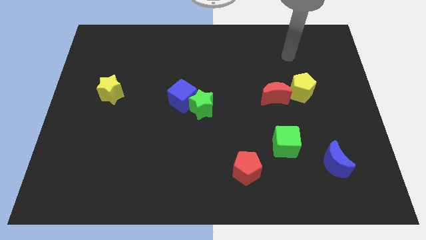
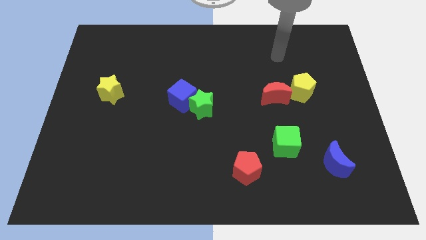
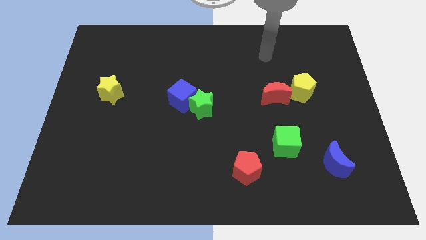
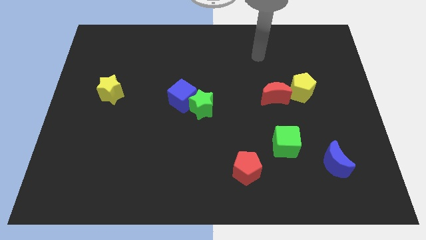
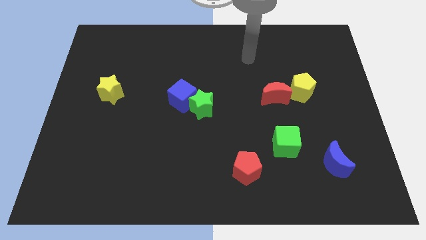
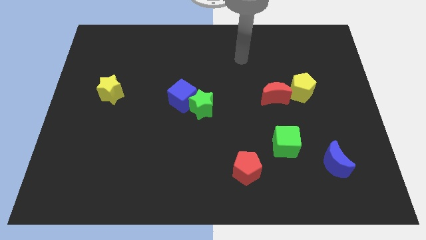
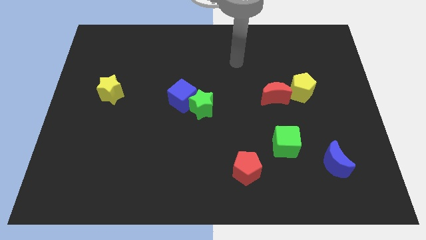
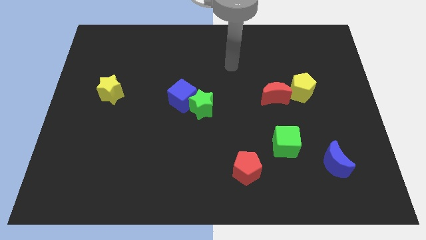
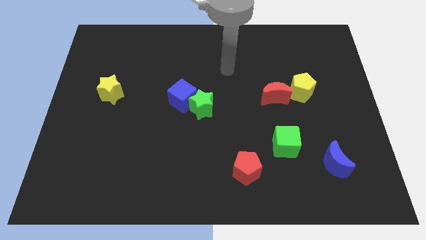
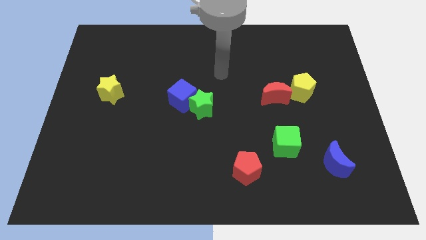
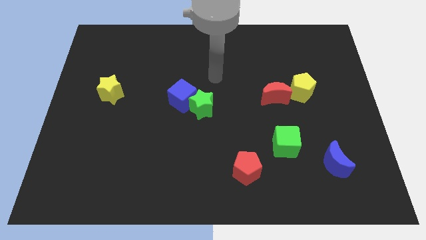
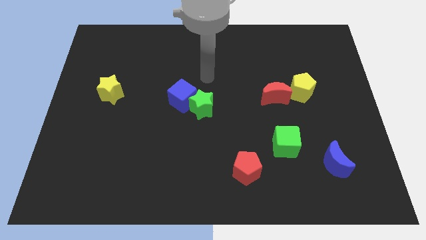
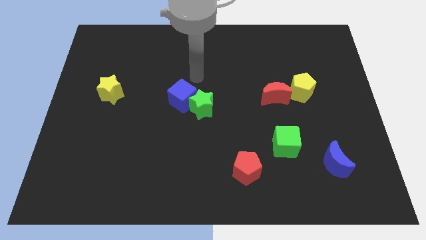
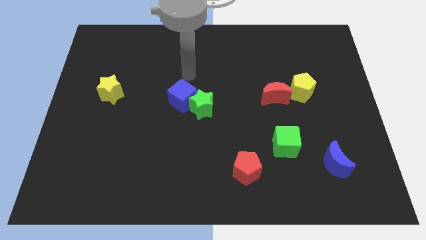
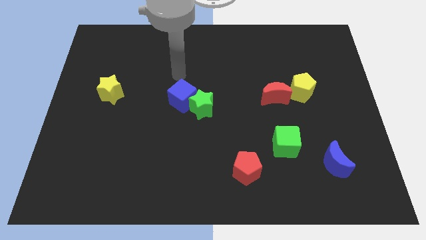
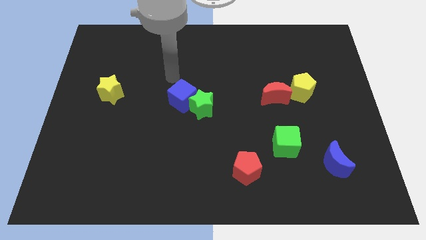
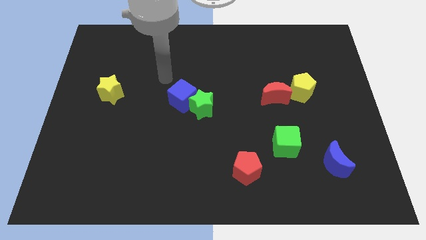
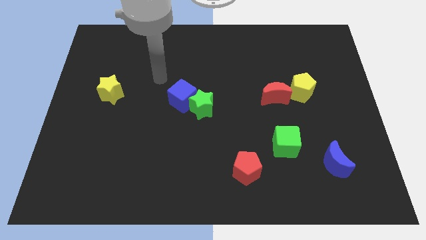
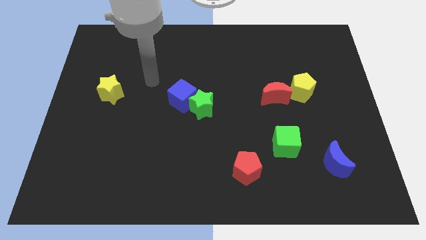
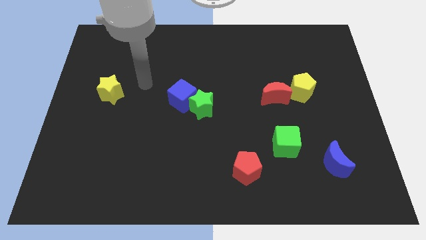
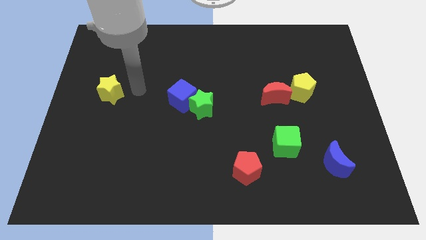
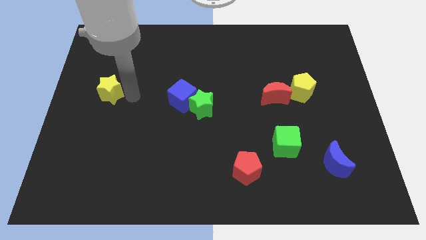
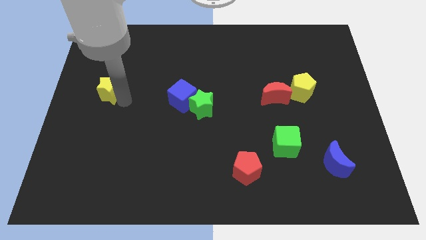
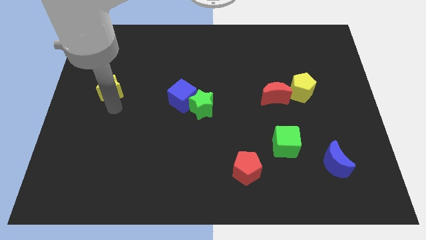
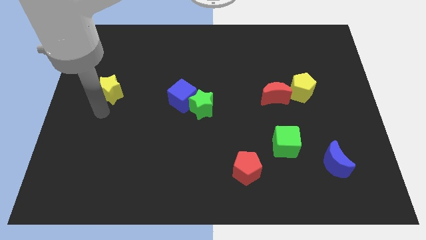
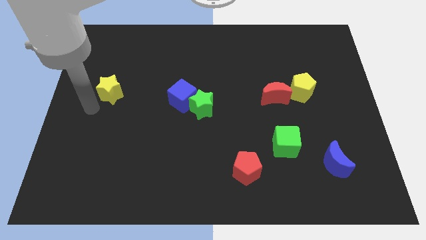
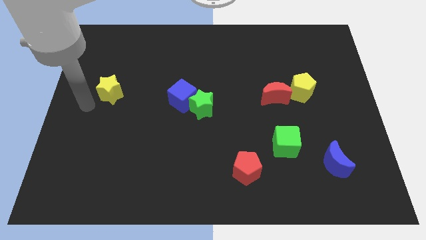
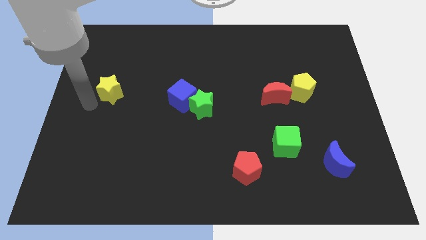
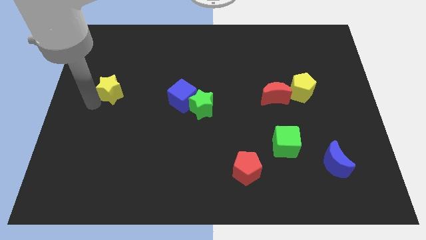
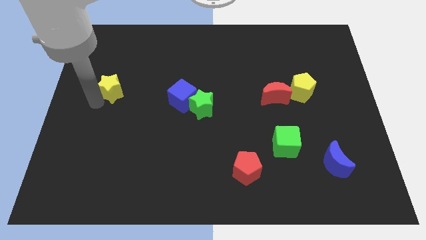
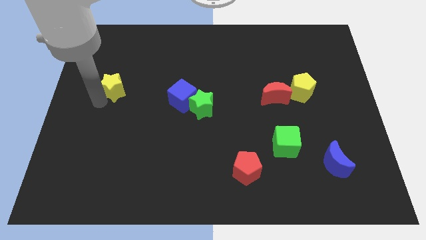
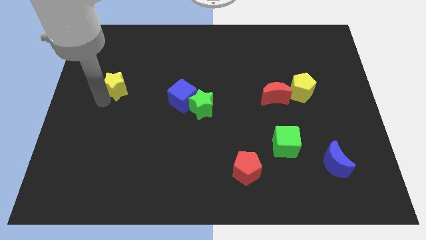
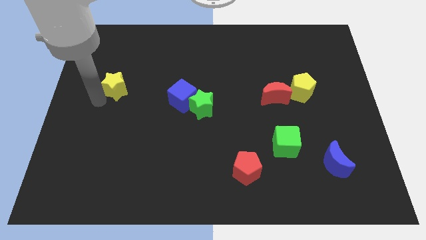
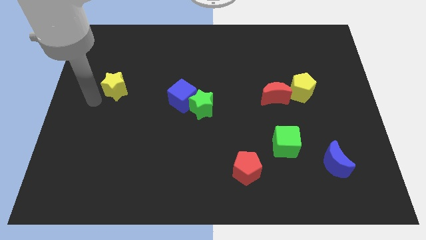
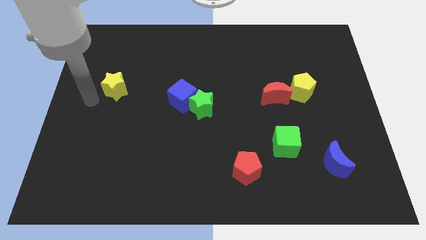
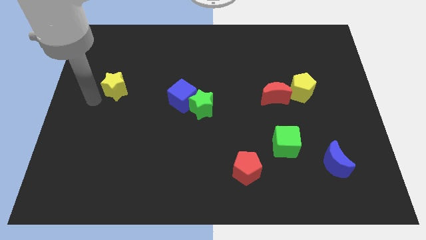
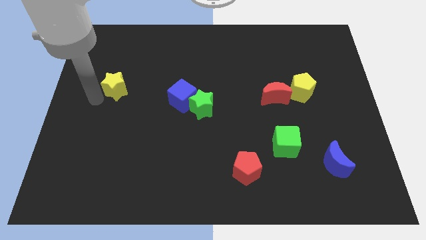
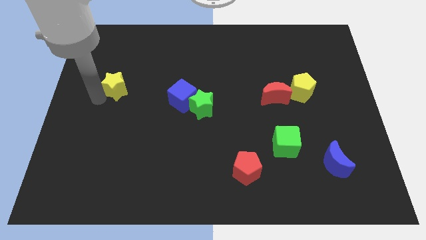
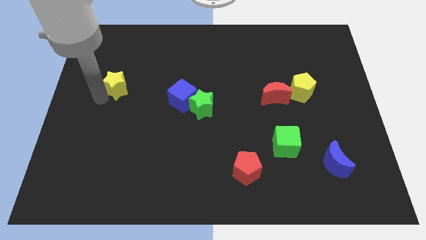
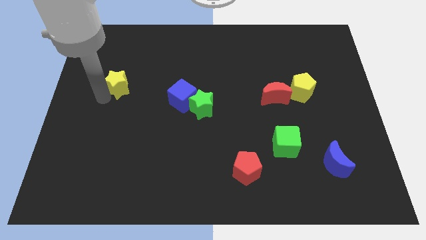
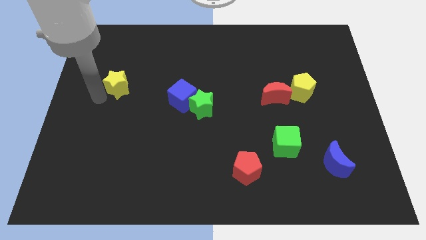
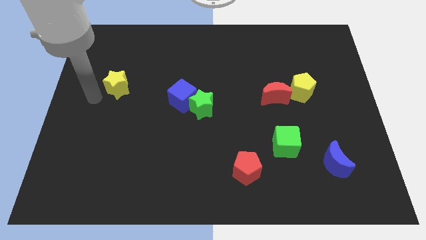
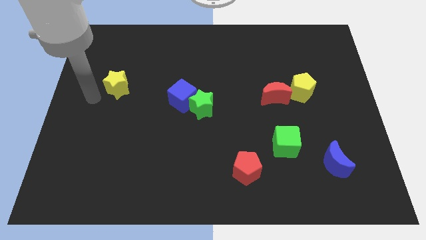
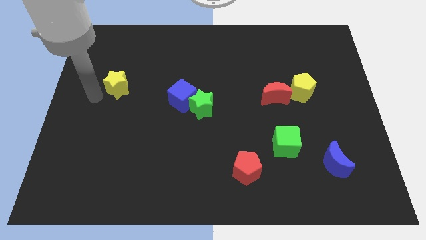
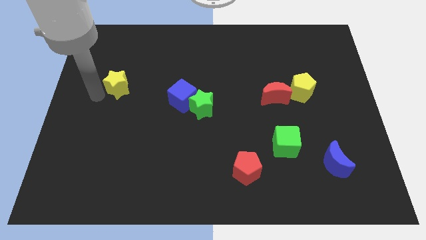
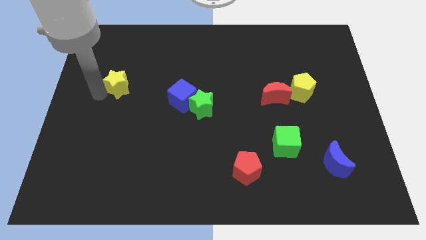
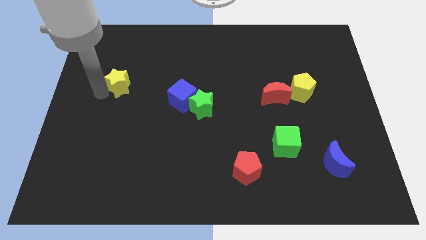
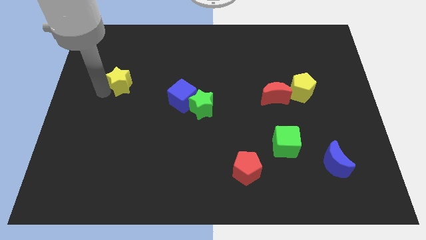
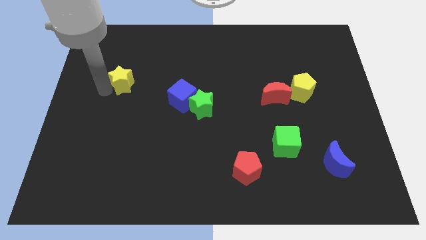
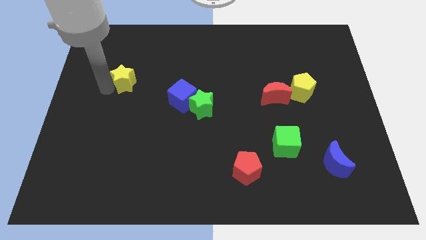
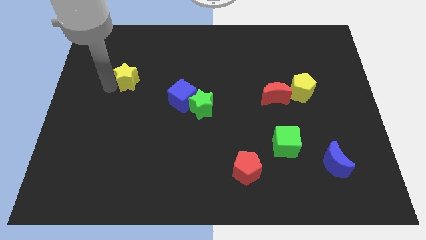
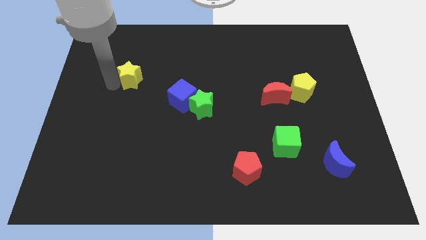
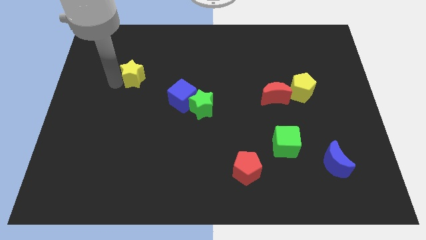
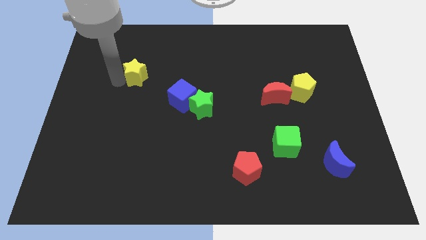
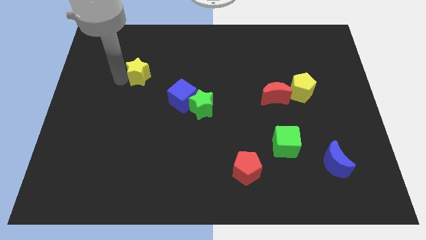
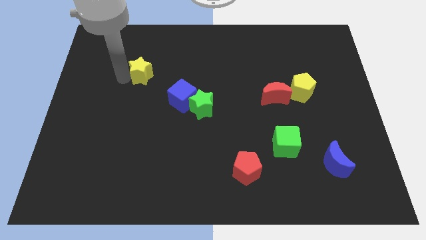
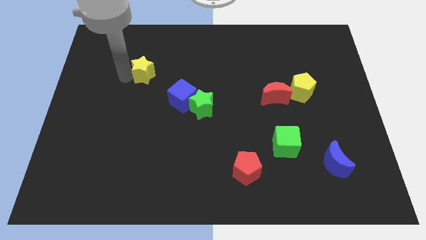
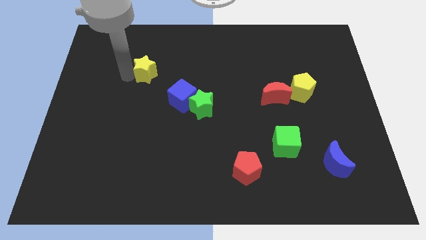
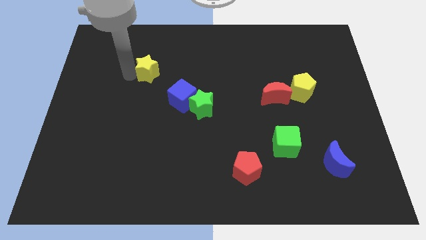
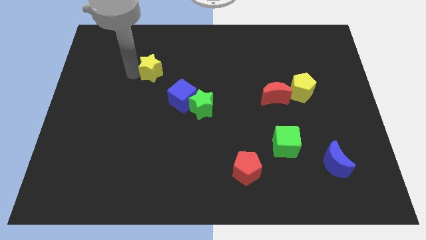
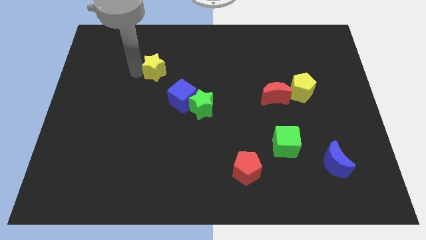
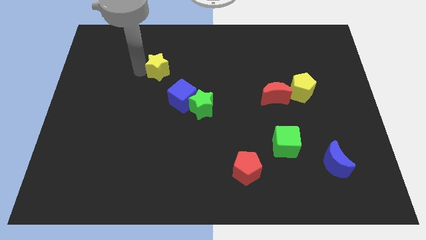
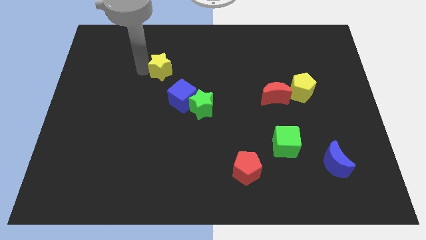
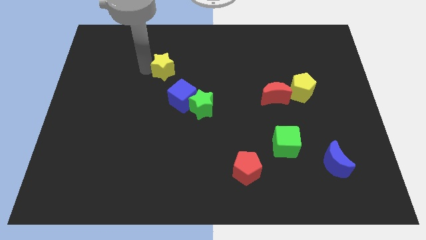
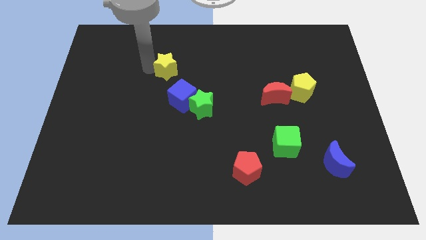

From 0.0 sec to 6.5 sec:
slide the yellow star to the top of the blue cube

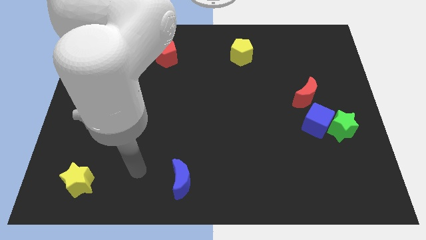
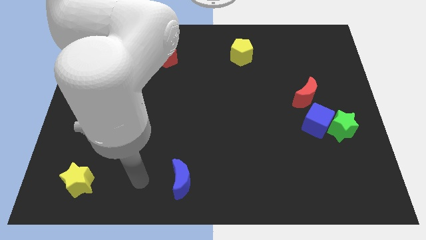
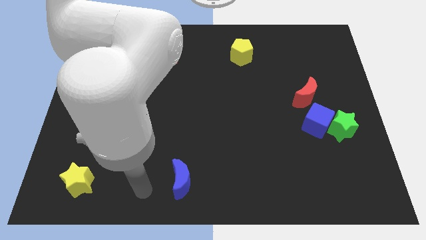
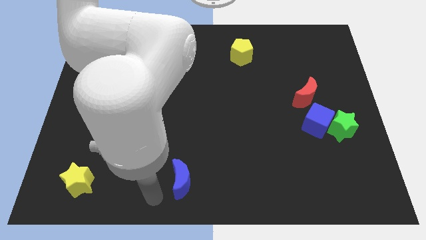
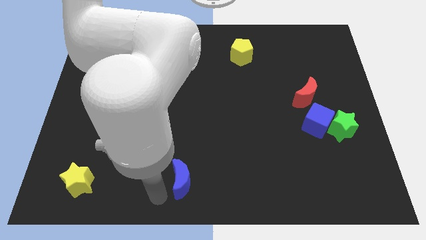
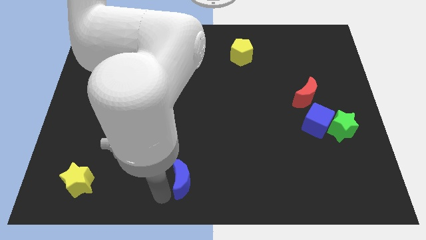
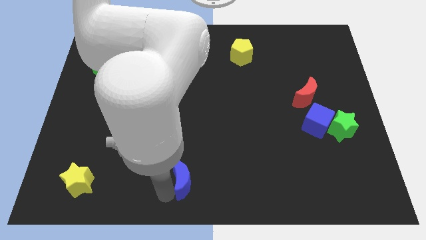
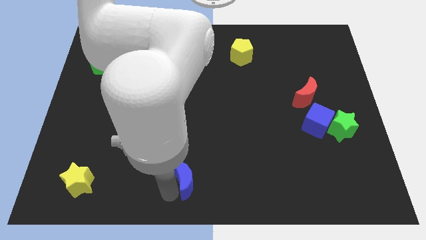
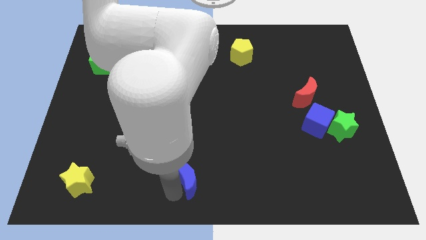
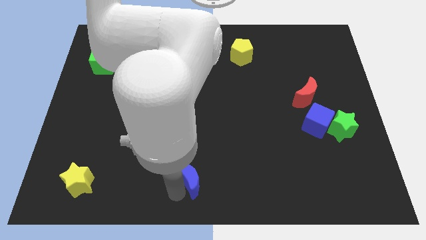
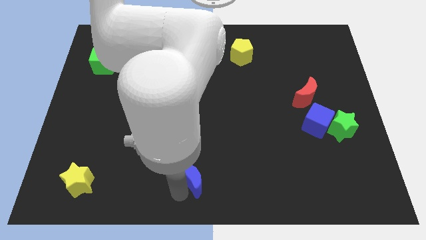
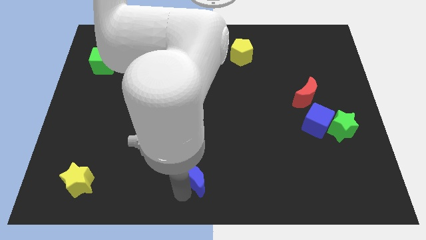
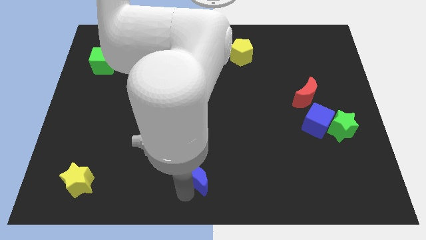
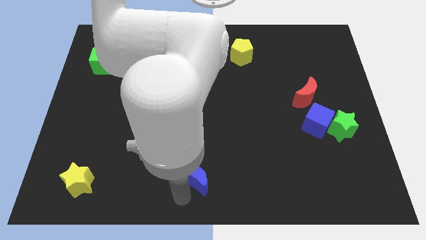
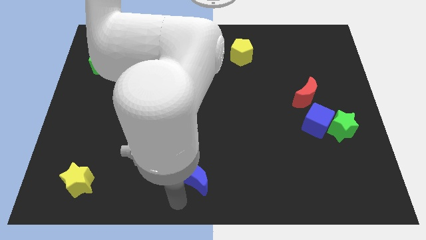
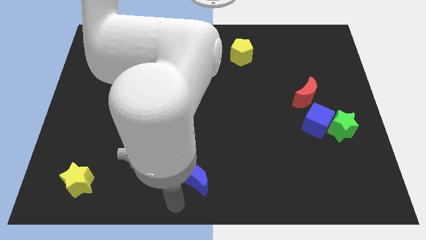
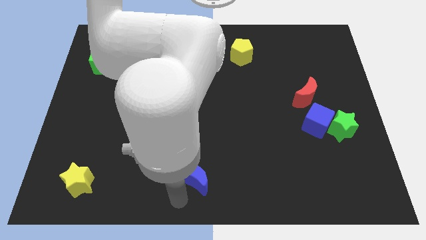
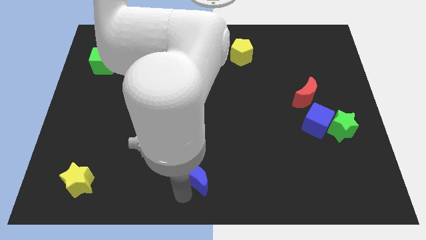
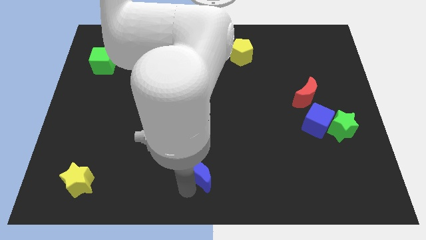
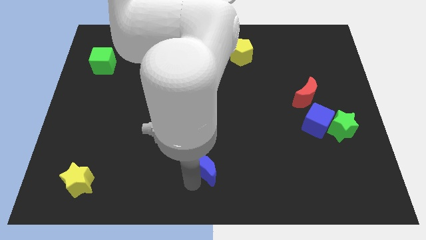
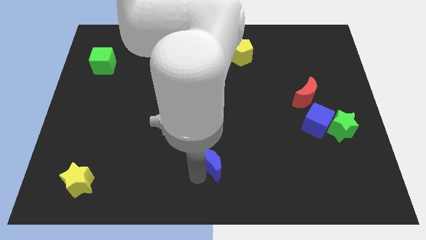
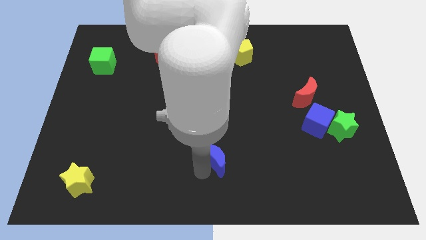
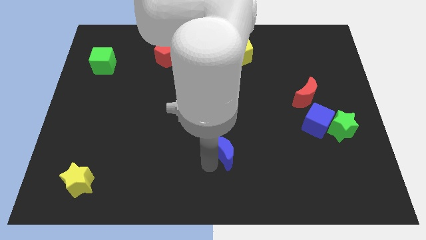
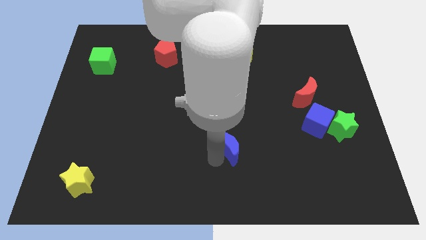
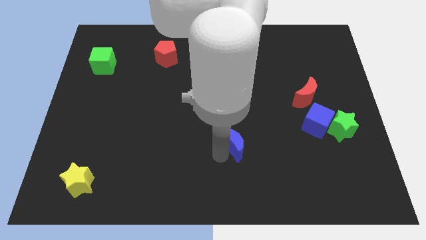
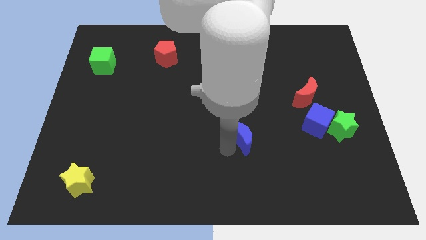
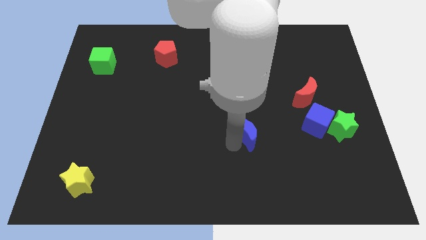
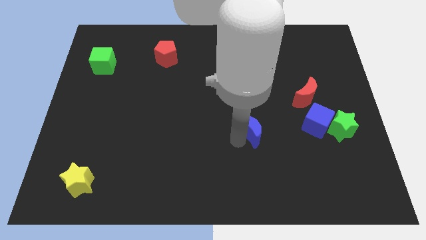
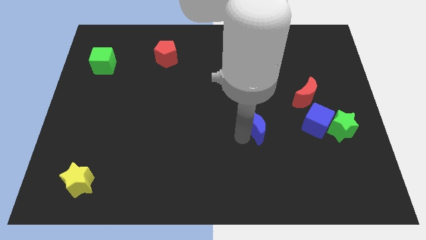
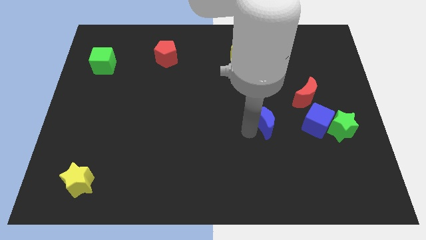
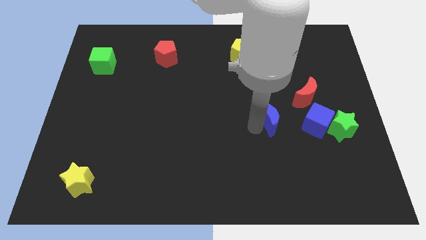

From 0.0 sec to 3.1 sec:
push the blue moon to the bottom left of the red moon
